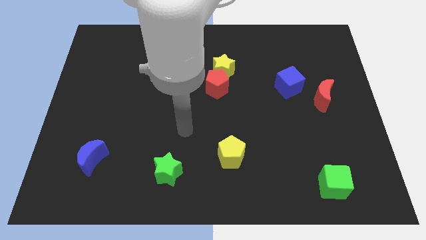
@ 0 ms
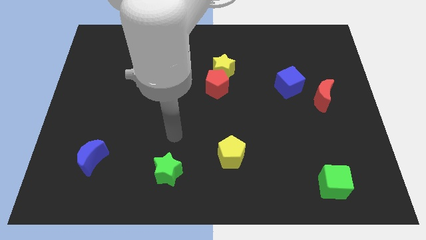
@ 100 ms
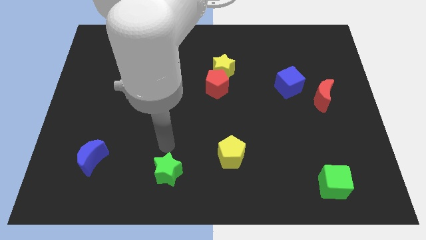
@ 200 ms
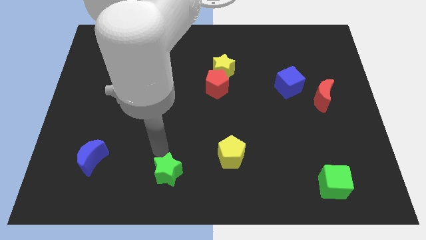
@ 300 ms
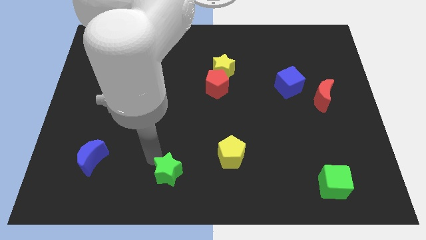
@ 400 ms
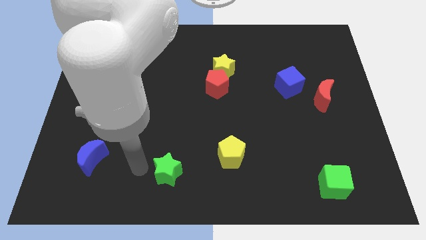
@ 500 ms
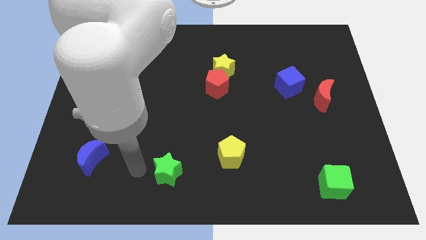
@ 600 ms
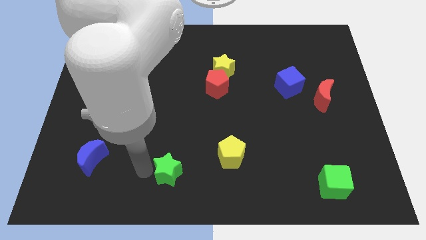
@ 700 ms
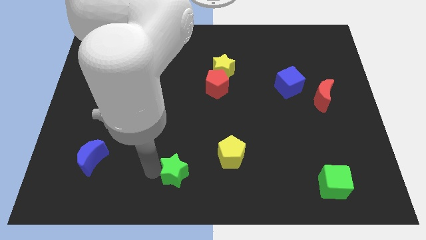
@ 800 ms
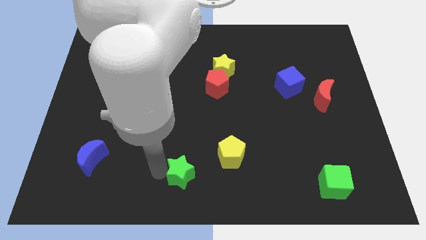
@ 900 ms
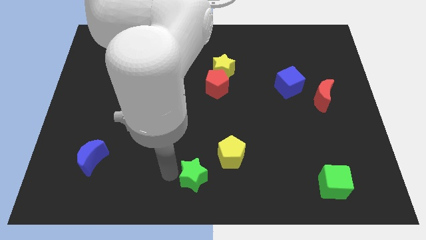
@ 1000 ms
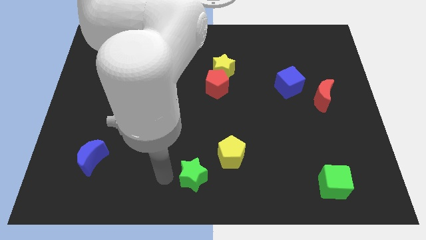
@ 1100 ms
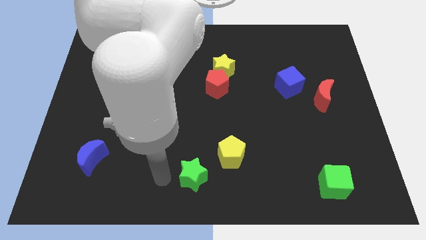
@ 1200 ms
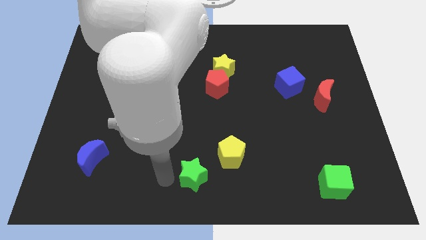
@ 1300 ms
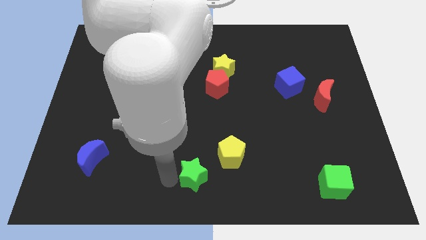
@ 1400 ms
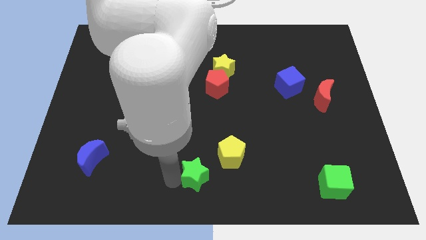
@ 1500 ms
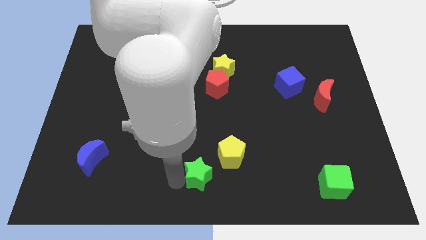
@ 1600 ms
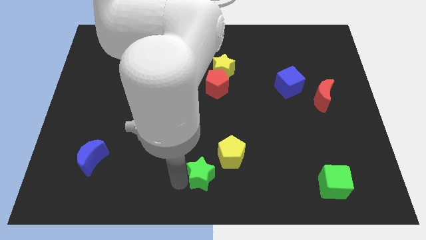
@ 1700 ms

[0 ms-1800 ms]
slide the green star to the right a bit

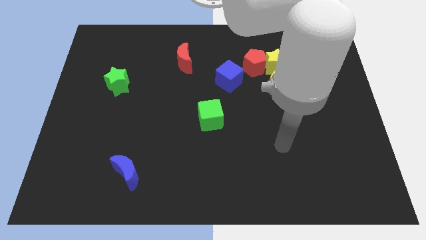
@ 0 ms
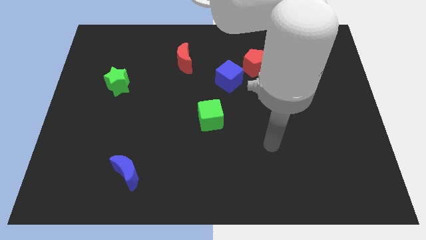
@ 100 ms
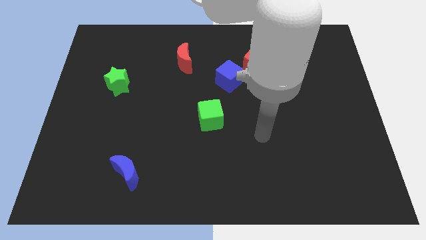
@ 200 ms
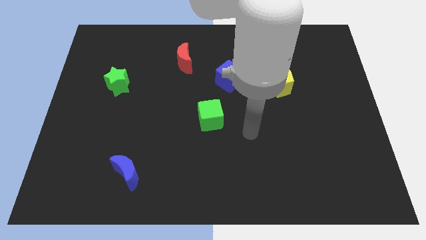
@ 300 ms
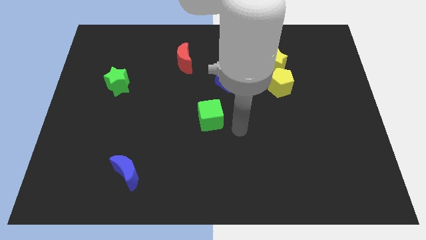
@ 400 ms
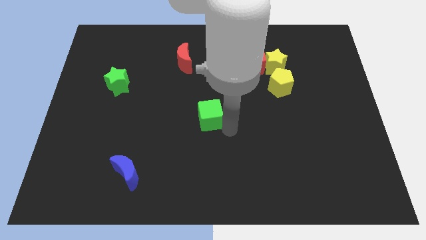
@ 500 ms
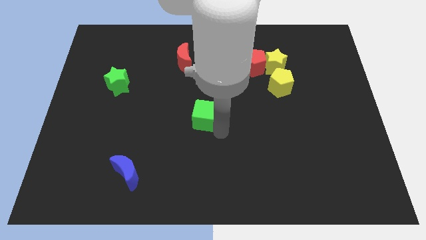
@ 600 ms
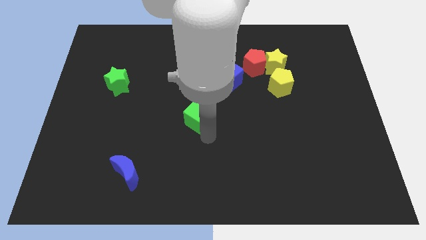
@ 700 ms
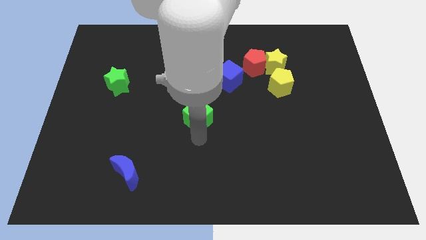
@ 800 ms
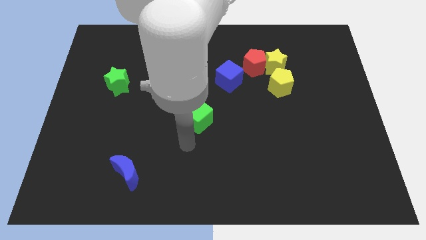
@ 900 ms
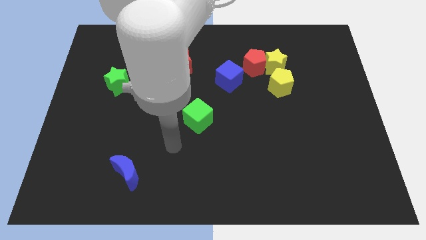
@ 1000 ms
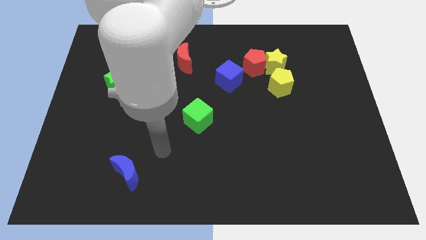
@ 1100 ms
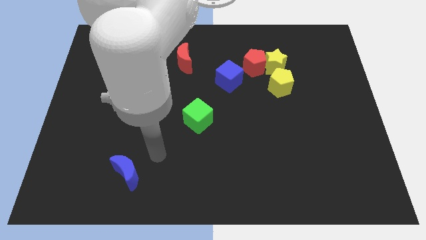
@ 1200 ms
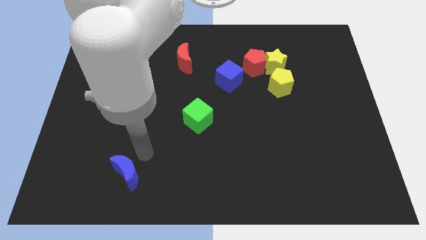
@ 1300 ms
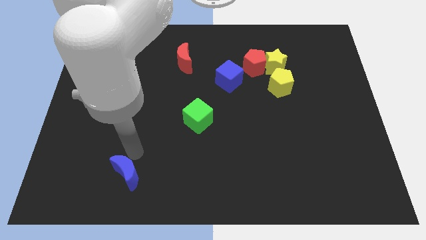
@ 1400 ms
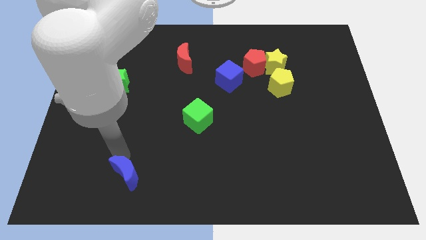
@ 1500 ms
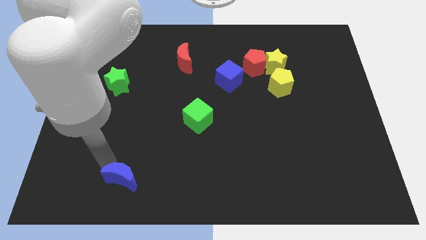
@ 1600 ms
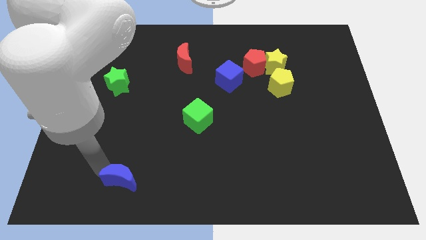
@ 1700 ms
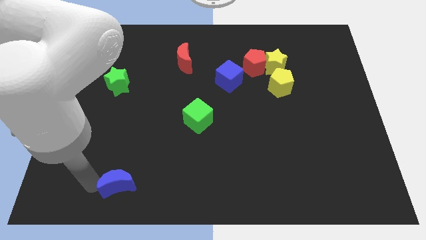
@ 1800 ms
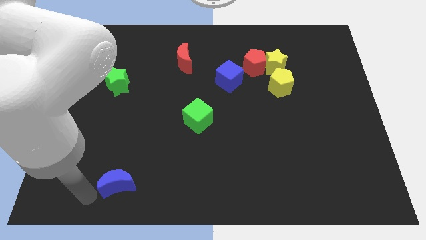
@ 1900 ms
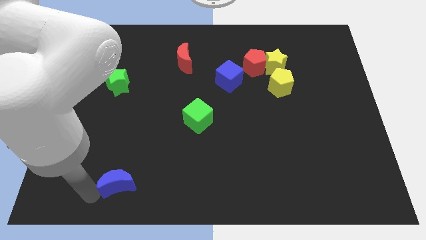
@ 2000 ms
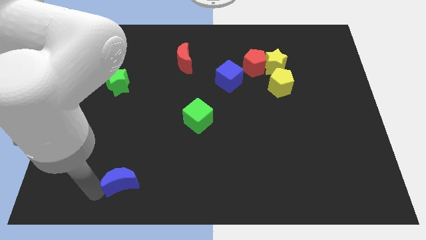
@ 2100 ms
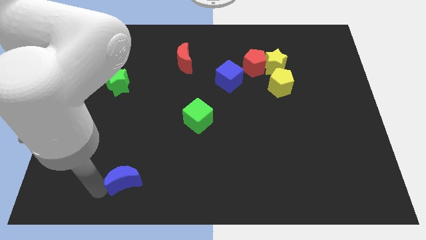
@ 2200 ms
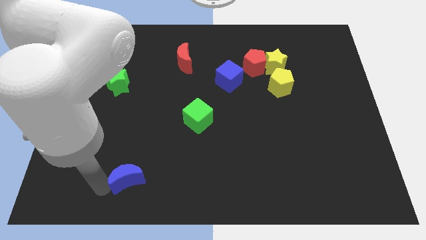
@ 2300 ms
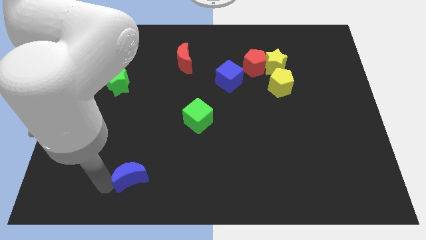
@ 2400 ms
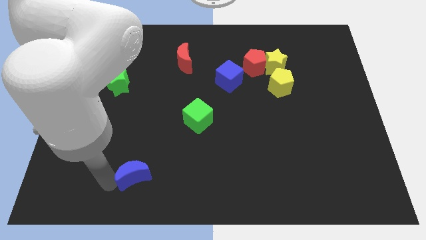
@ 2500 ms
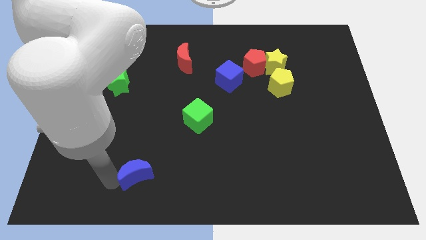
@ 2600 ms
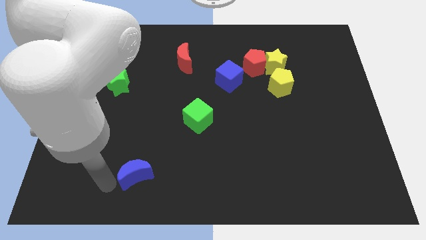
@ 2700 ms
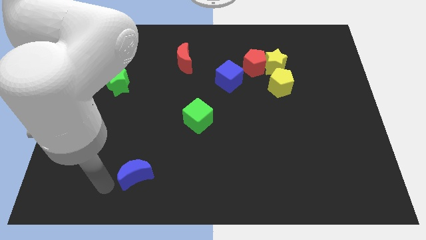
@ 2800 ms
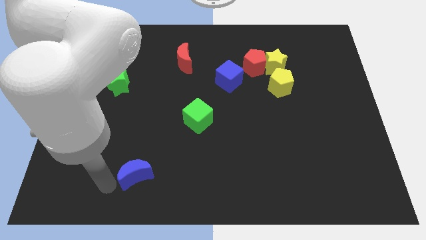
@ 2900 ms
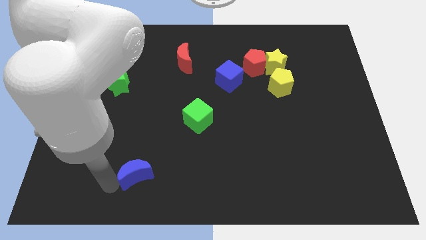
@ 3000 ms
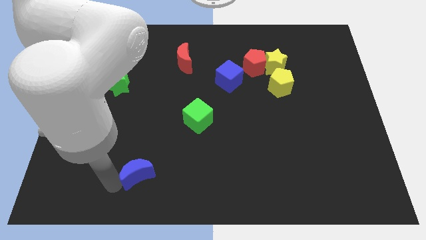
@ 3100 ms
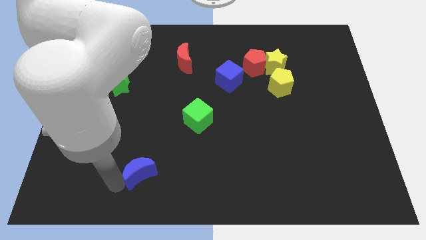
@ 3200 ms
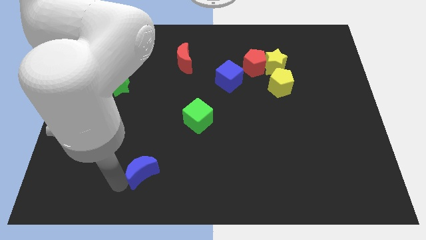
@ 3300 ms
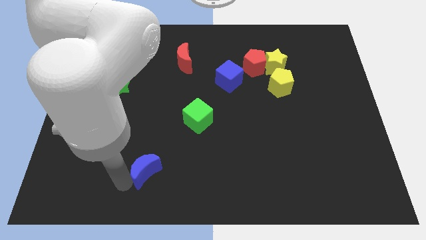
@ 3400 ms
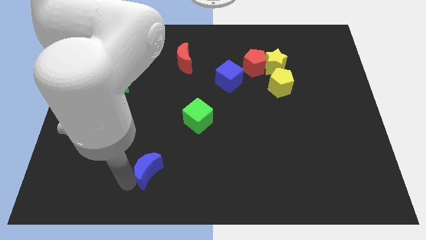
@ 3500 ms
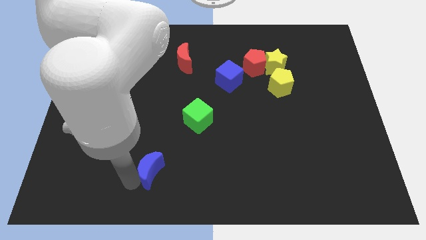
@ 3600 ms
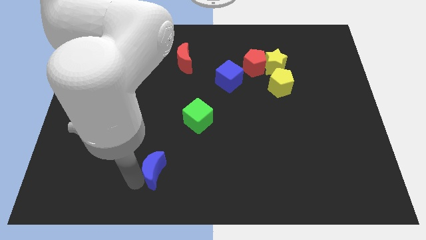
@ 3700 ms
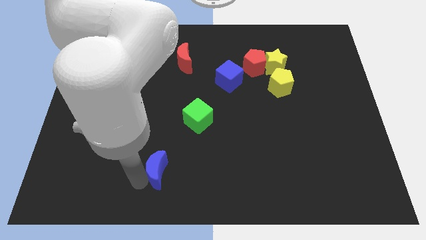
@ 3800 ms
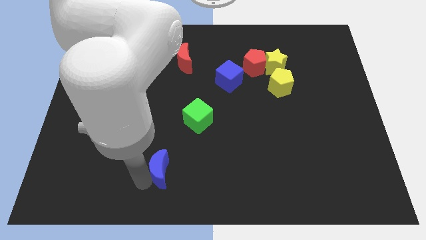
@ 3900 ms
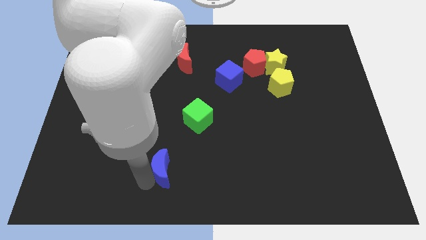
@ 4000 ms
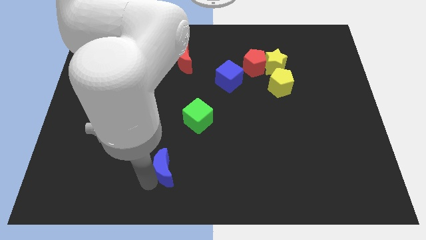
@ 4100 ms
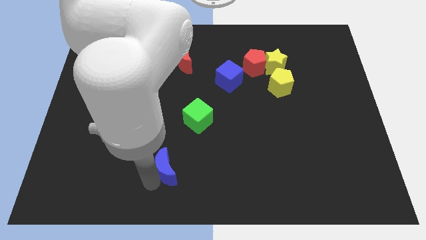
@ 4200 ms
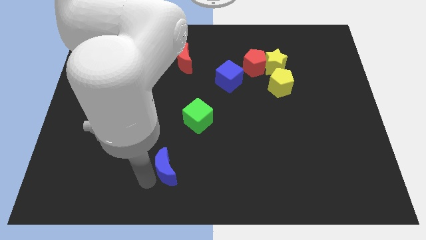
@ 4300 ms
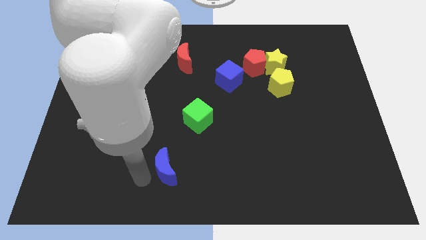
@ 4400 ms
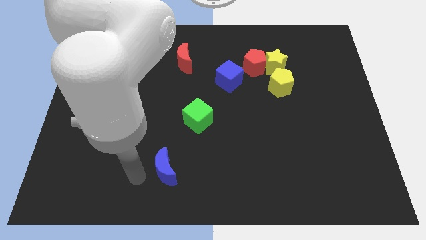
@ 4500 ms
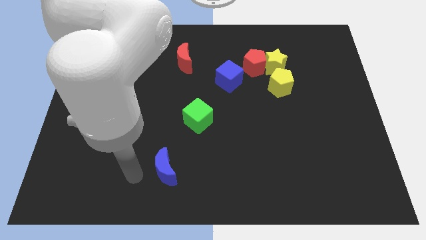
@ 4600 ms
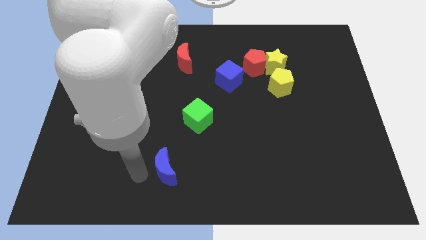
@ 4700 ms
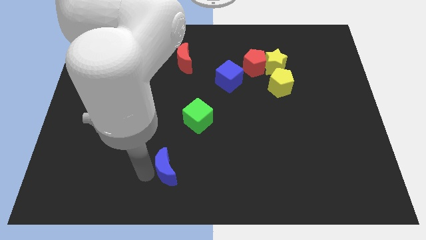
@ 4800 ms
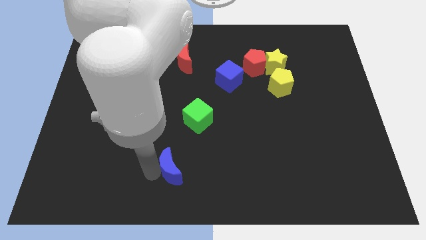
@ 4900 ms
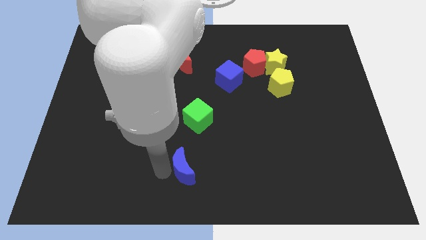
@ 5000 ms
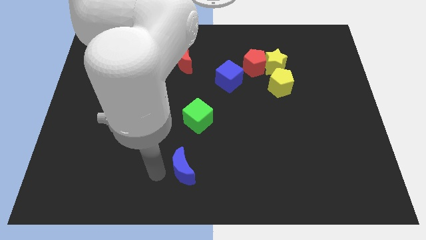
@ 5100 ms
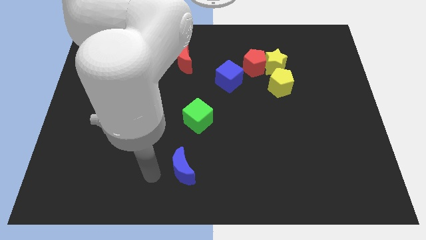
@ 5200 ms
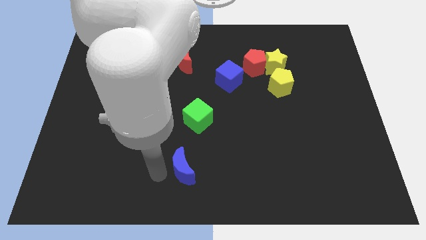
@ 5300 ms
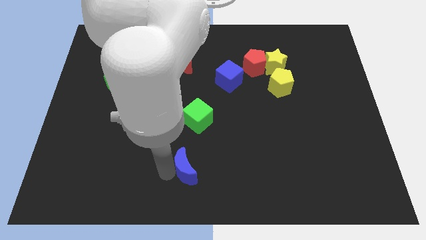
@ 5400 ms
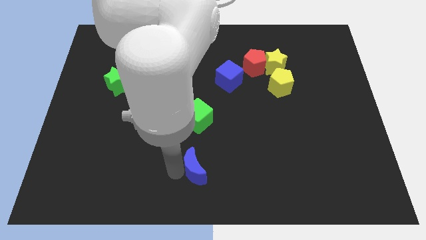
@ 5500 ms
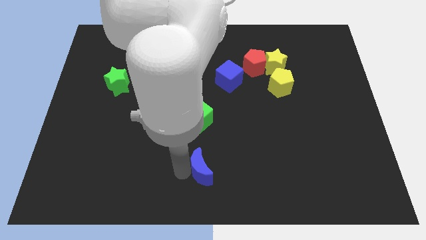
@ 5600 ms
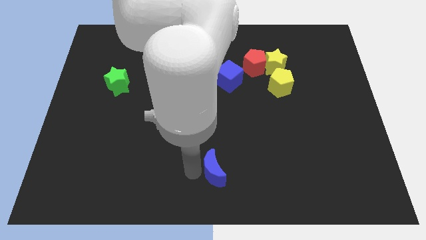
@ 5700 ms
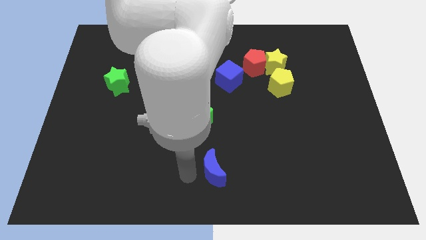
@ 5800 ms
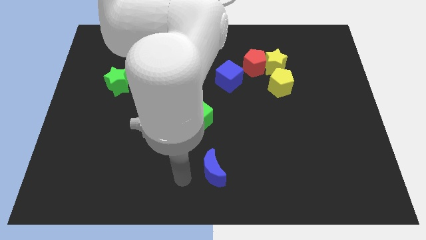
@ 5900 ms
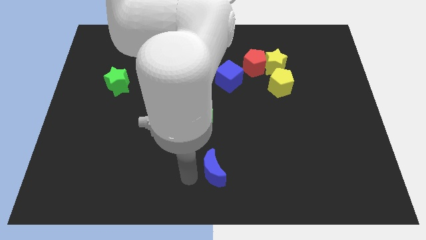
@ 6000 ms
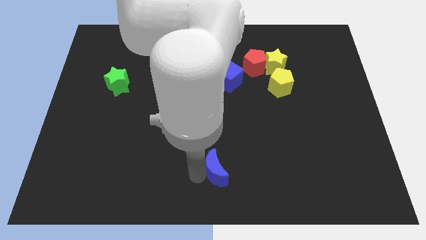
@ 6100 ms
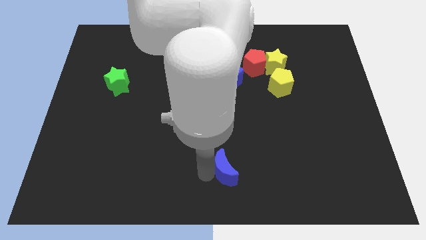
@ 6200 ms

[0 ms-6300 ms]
push the blue moon to the right

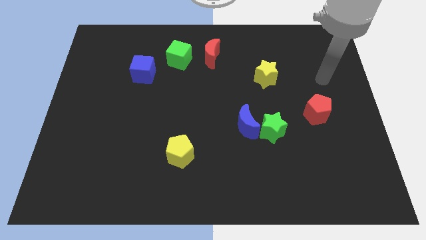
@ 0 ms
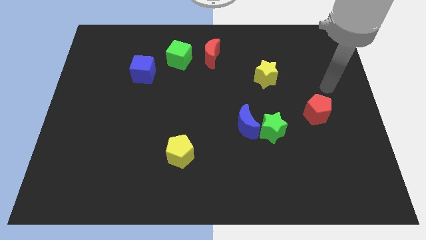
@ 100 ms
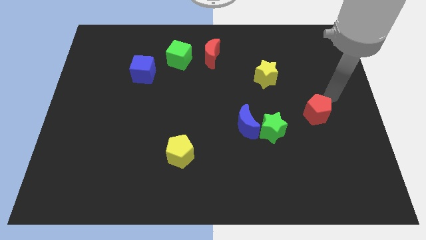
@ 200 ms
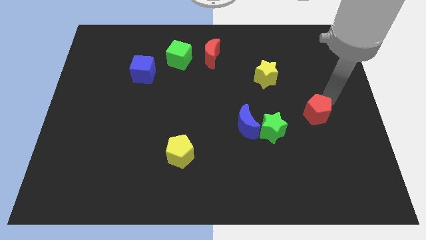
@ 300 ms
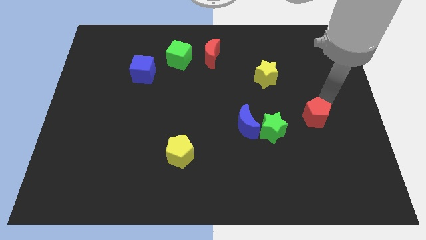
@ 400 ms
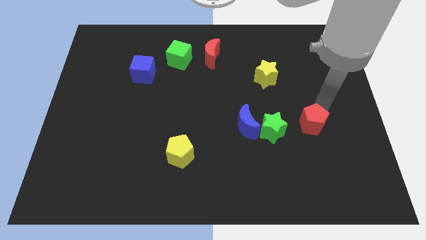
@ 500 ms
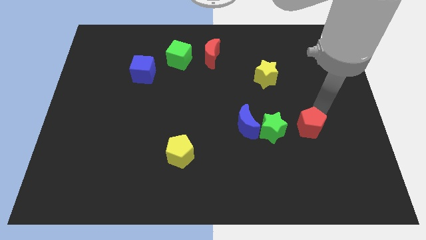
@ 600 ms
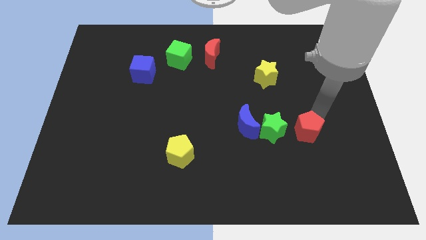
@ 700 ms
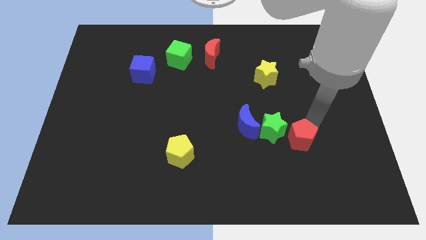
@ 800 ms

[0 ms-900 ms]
slightly slide the red pentagon diagonally downwards and to the left
